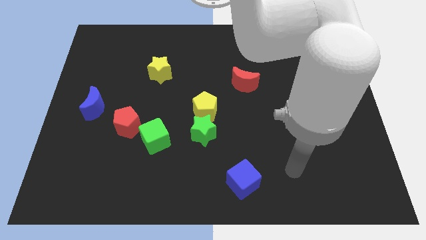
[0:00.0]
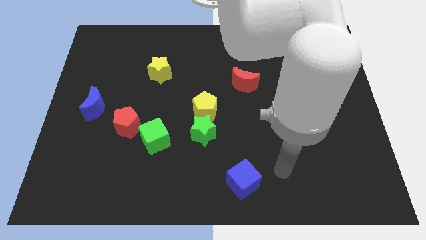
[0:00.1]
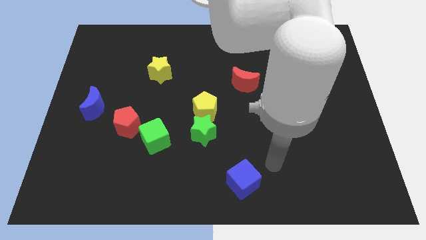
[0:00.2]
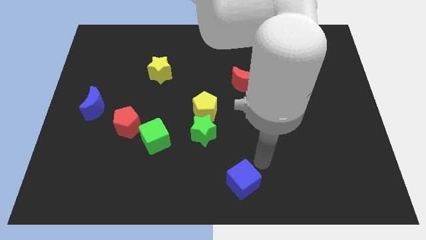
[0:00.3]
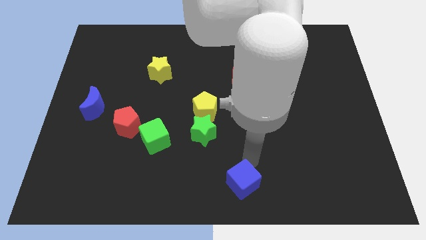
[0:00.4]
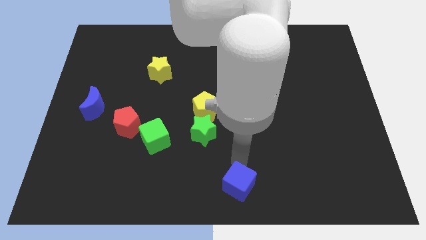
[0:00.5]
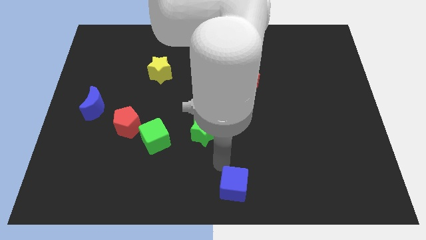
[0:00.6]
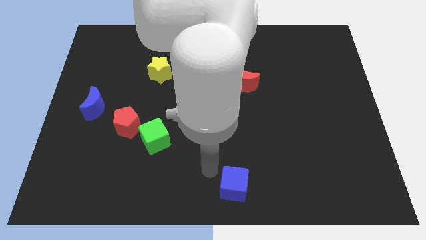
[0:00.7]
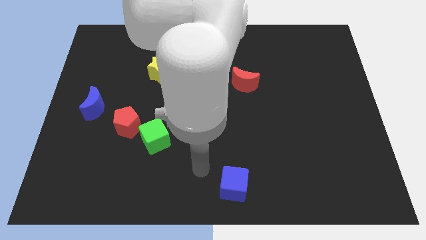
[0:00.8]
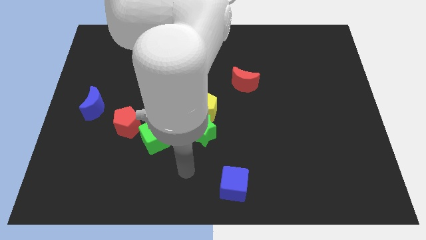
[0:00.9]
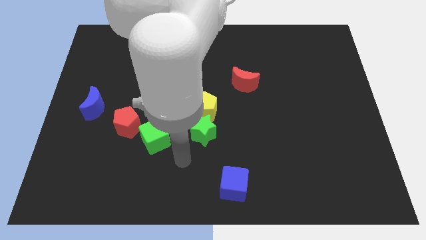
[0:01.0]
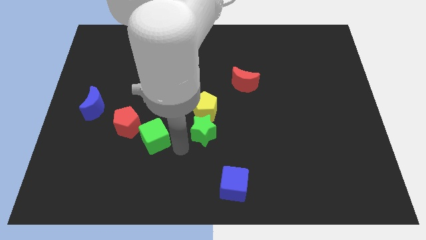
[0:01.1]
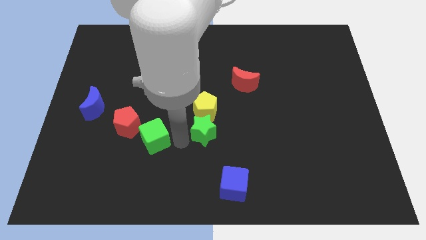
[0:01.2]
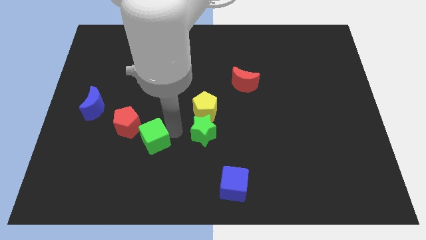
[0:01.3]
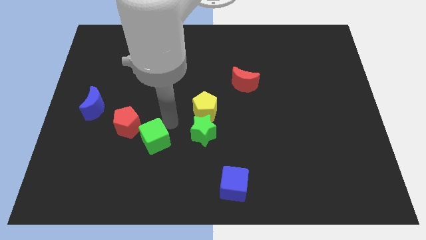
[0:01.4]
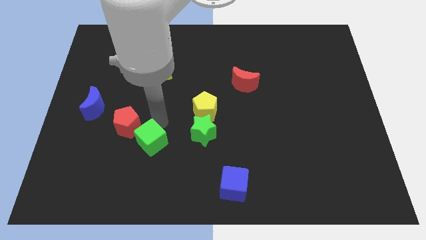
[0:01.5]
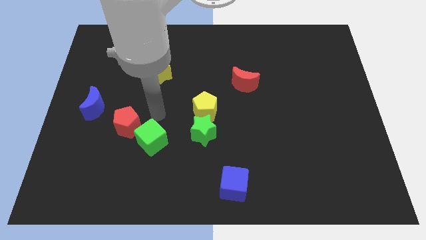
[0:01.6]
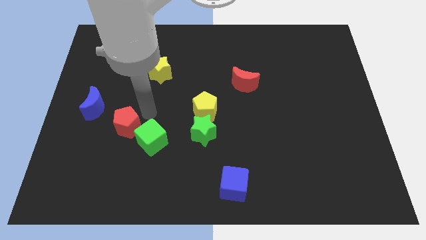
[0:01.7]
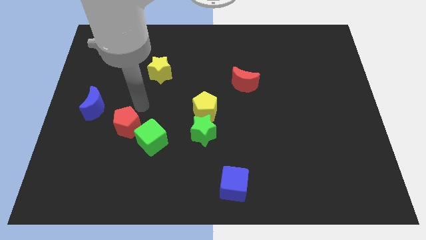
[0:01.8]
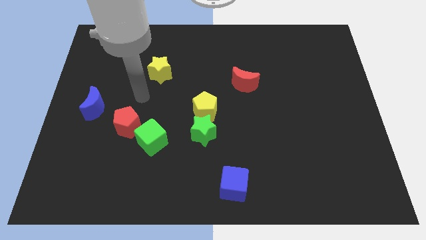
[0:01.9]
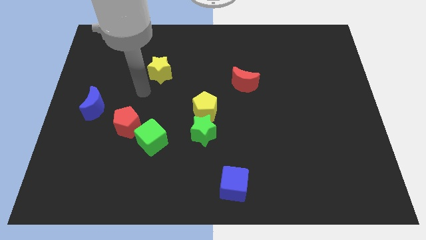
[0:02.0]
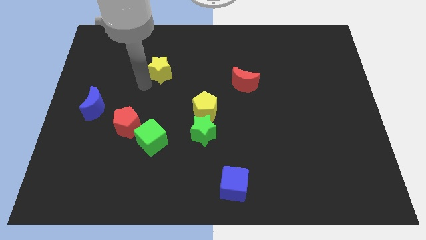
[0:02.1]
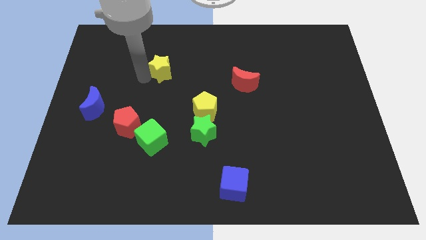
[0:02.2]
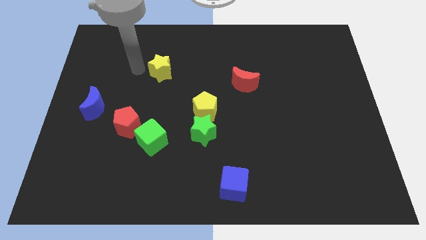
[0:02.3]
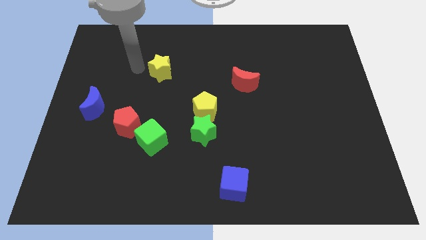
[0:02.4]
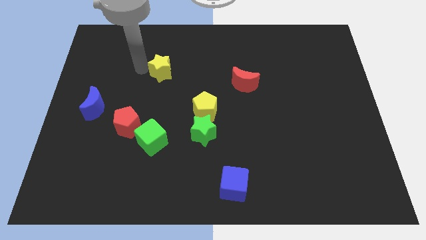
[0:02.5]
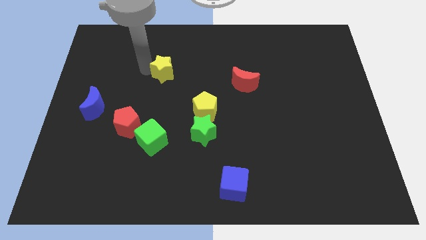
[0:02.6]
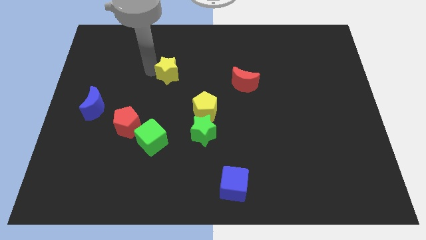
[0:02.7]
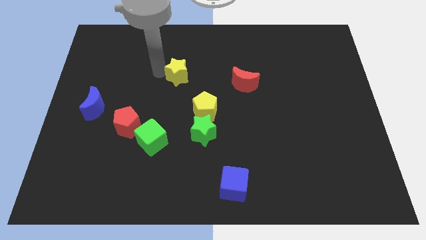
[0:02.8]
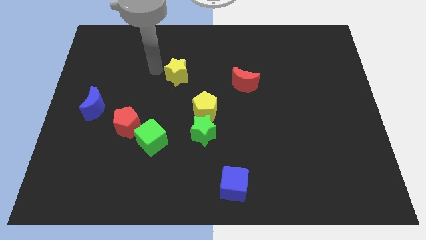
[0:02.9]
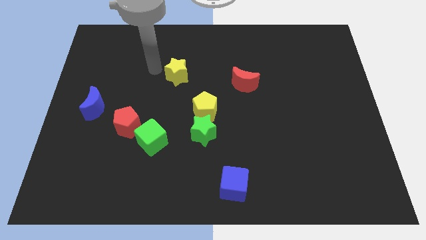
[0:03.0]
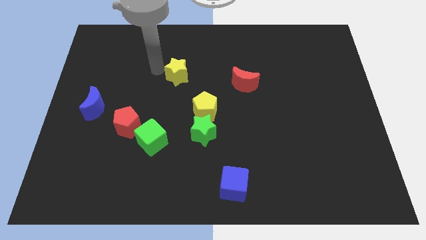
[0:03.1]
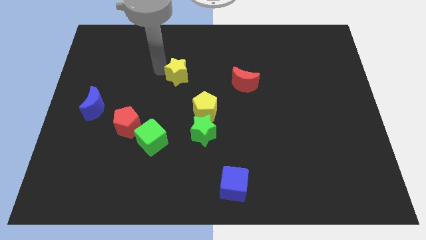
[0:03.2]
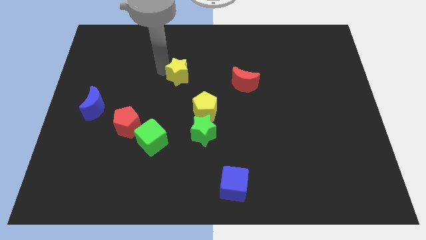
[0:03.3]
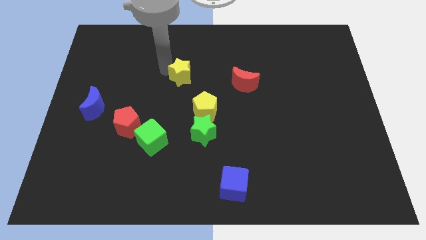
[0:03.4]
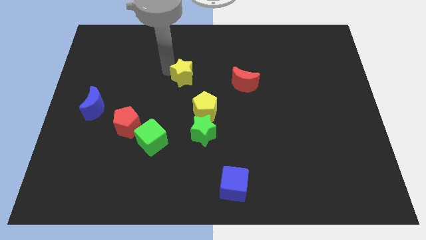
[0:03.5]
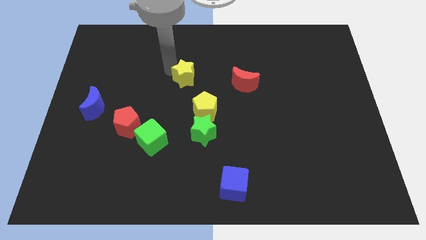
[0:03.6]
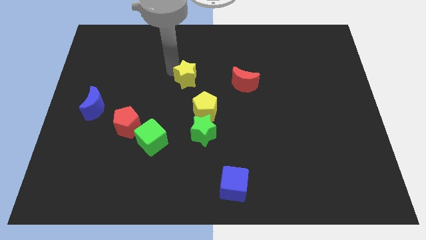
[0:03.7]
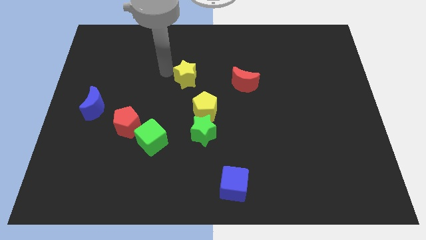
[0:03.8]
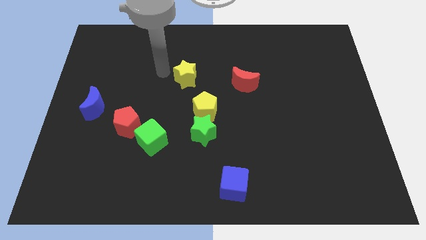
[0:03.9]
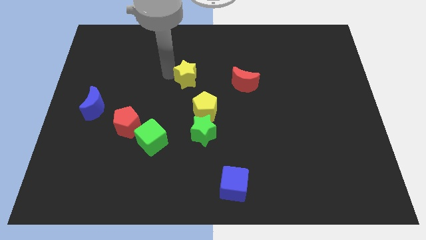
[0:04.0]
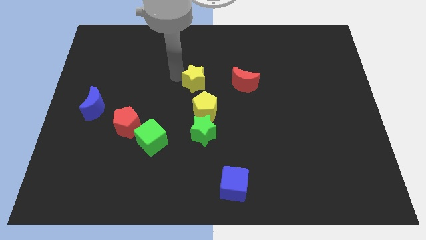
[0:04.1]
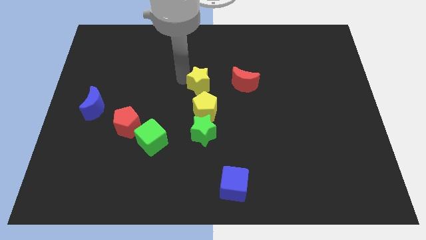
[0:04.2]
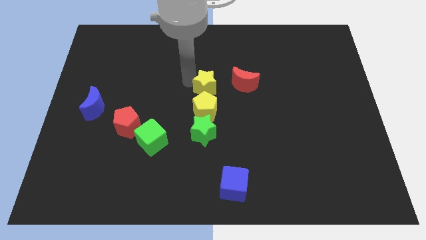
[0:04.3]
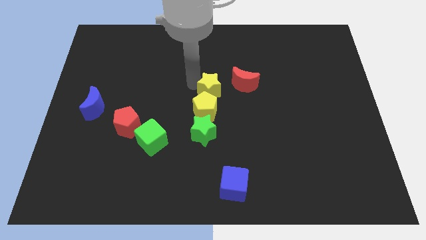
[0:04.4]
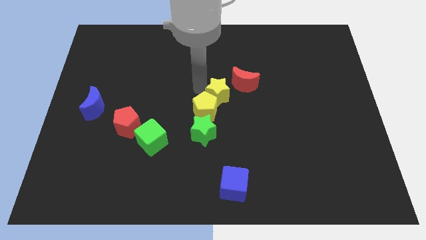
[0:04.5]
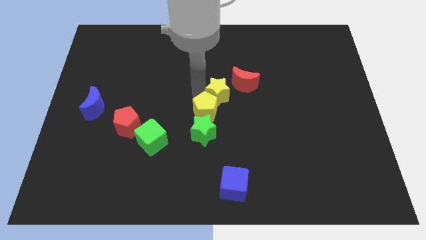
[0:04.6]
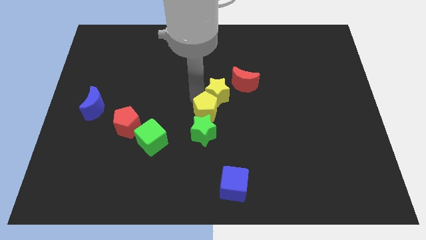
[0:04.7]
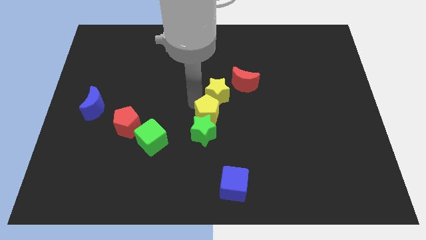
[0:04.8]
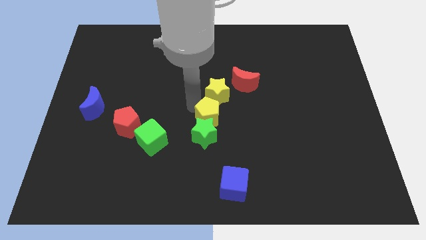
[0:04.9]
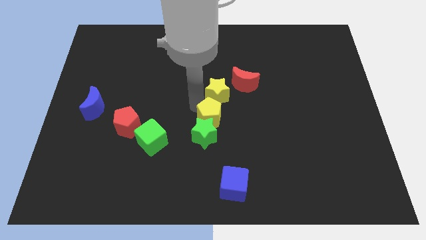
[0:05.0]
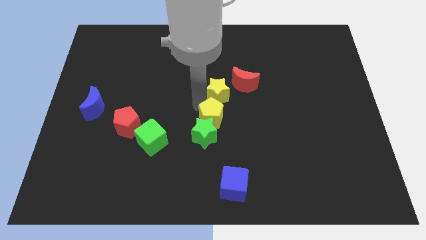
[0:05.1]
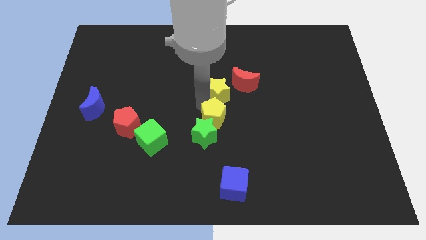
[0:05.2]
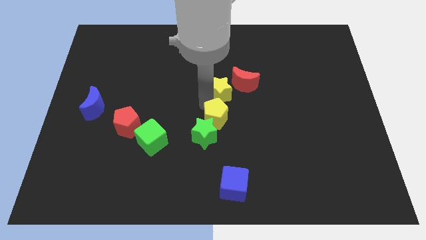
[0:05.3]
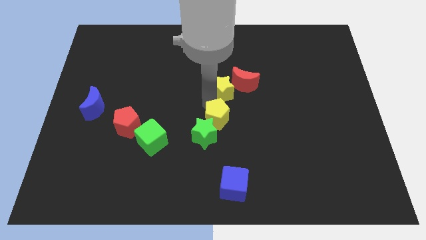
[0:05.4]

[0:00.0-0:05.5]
slide the yellow star next to the red moon

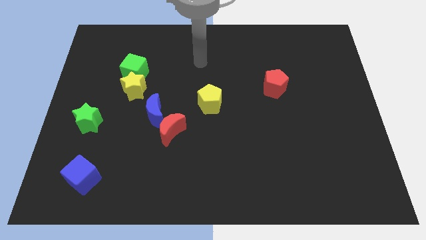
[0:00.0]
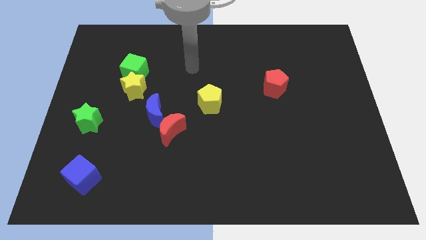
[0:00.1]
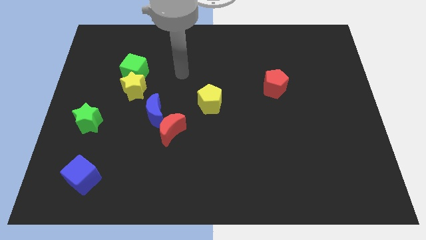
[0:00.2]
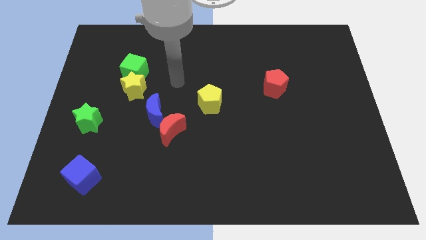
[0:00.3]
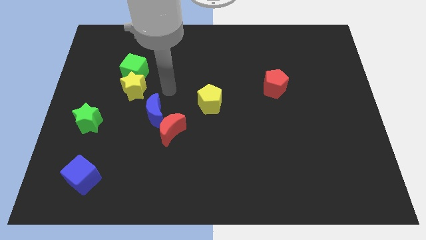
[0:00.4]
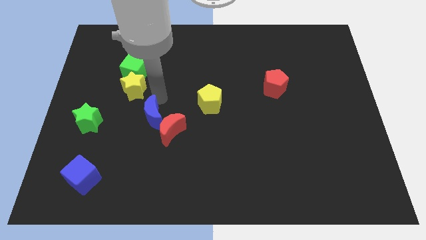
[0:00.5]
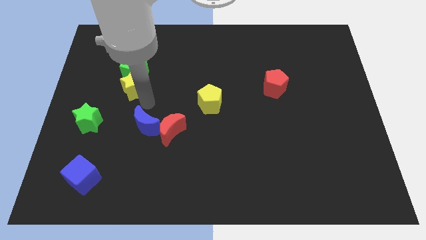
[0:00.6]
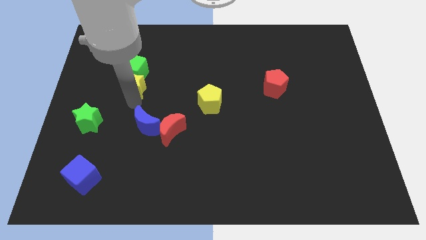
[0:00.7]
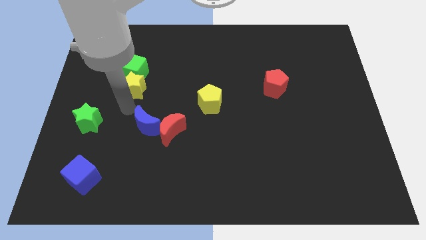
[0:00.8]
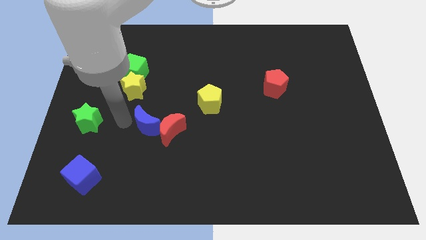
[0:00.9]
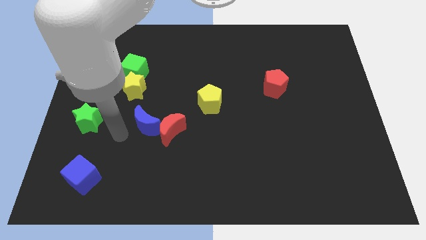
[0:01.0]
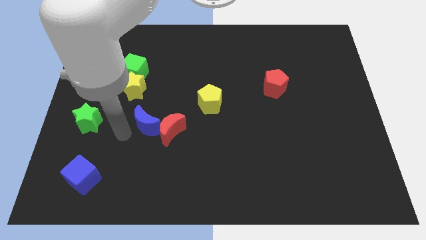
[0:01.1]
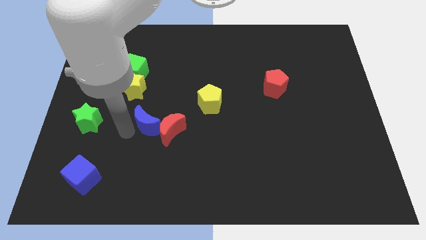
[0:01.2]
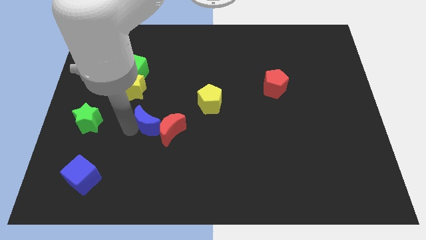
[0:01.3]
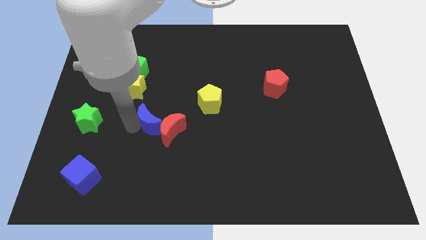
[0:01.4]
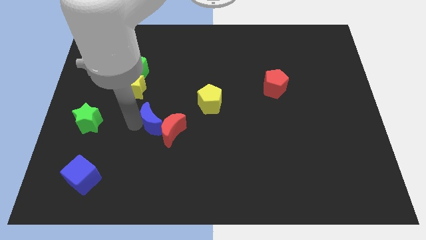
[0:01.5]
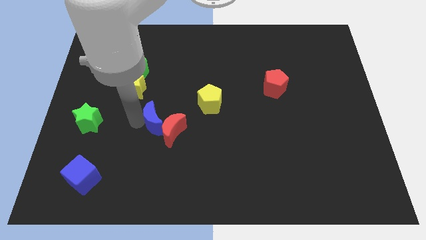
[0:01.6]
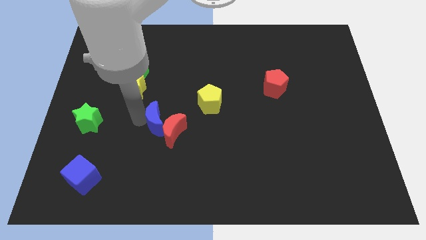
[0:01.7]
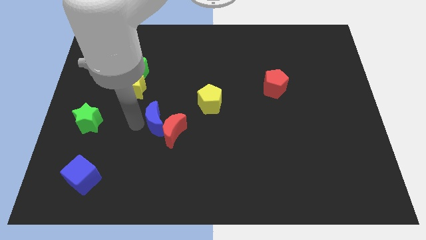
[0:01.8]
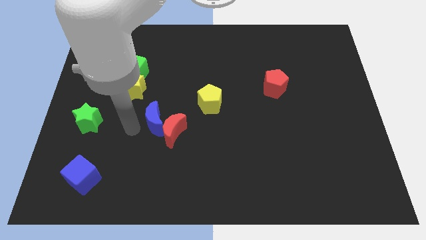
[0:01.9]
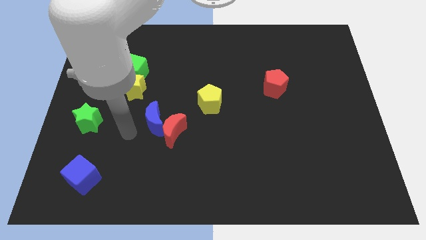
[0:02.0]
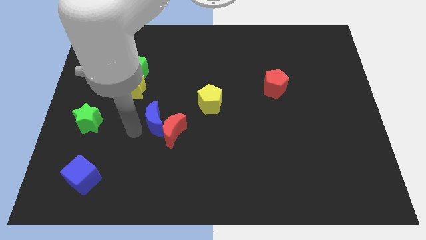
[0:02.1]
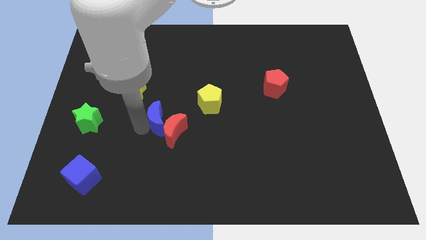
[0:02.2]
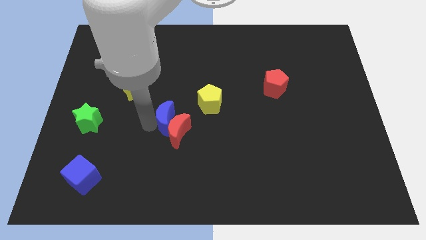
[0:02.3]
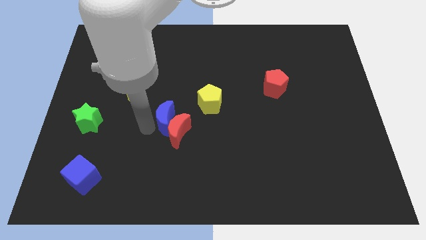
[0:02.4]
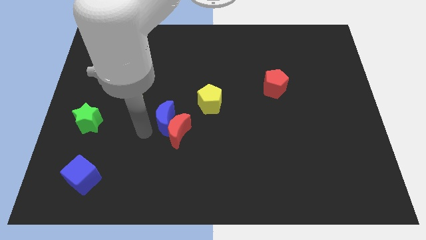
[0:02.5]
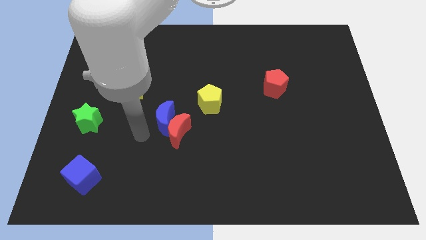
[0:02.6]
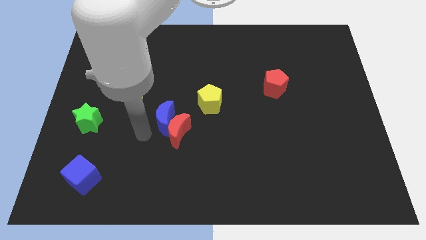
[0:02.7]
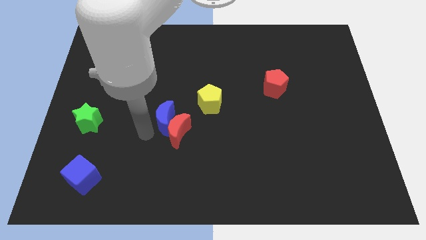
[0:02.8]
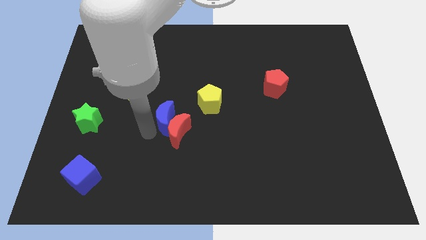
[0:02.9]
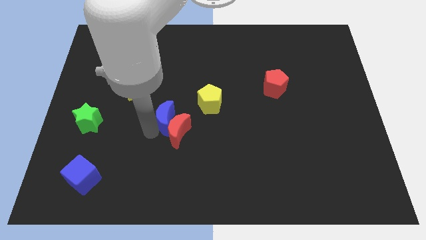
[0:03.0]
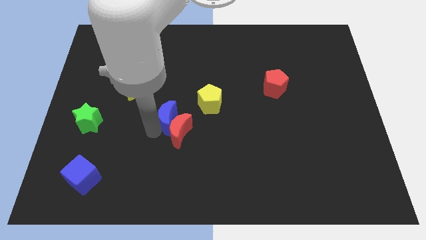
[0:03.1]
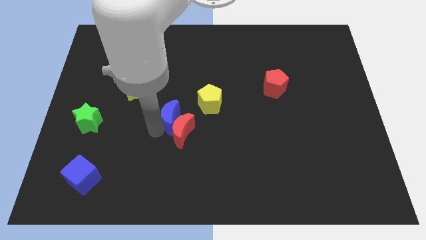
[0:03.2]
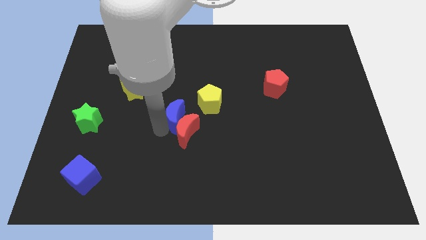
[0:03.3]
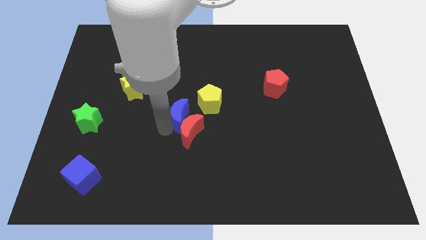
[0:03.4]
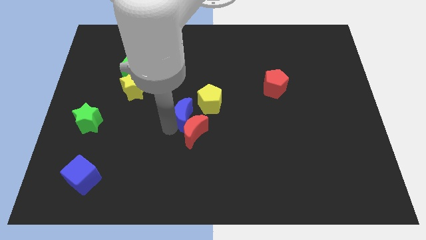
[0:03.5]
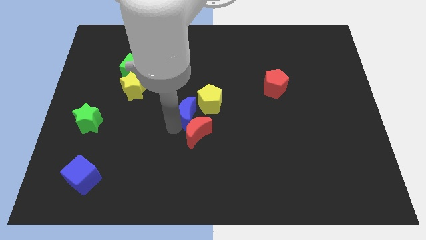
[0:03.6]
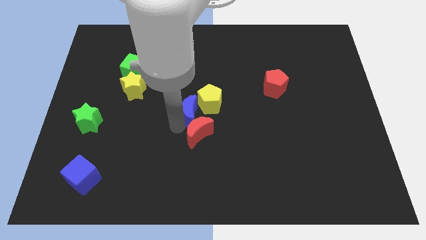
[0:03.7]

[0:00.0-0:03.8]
move the blue moon close to the yellow pentagon
